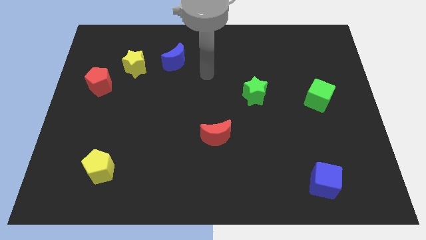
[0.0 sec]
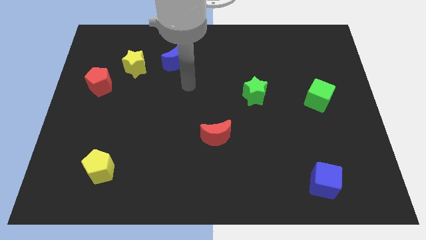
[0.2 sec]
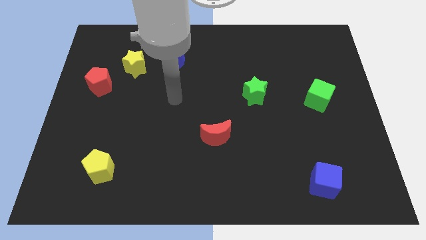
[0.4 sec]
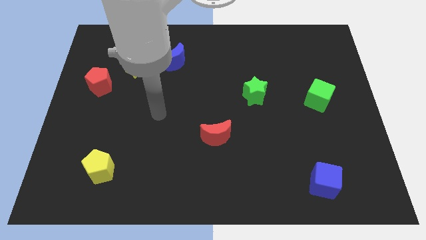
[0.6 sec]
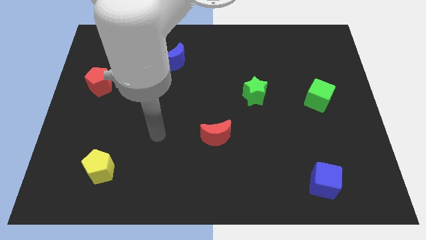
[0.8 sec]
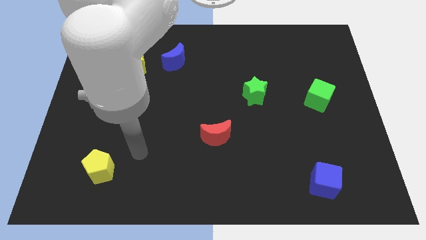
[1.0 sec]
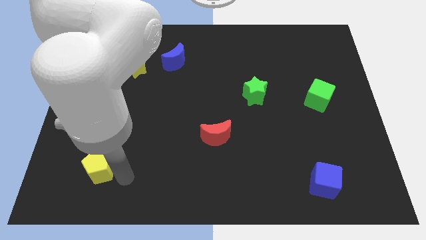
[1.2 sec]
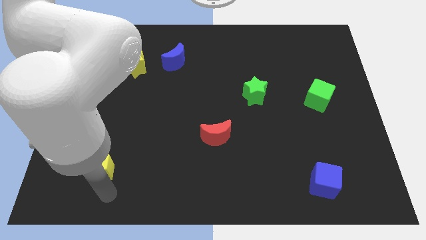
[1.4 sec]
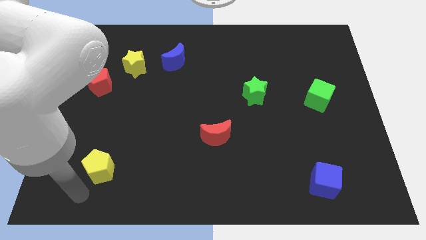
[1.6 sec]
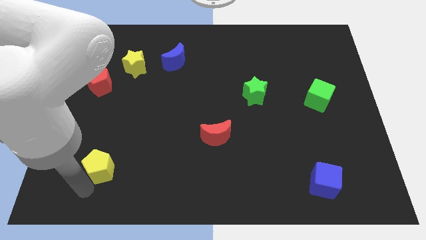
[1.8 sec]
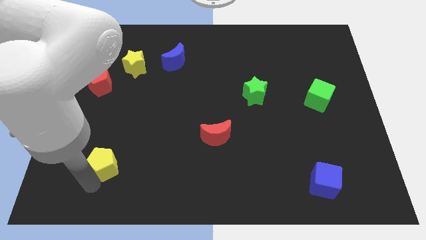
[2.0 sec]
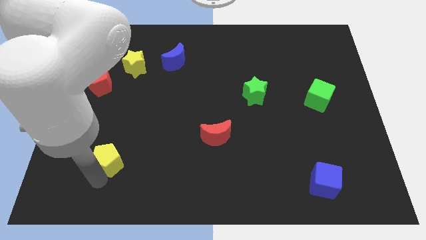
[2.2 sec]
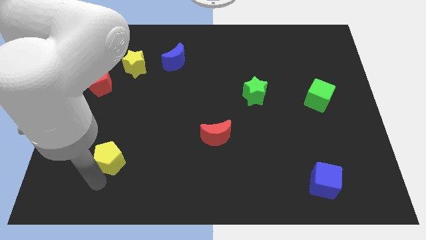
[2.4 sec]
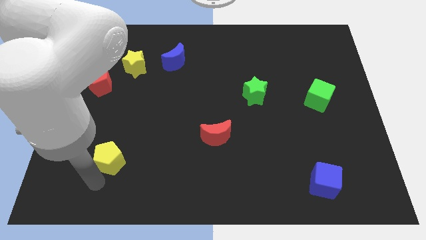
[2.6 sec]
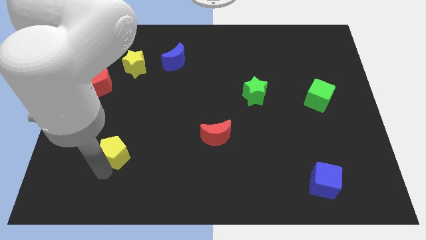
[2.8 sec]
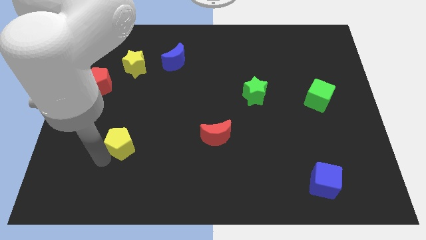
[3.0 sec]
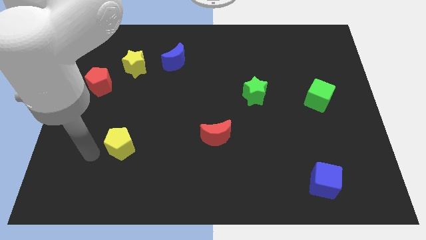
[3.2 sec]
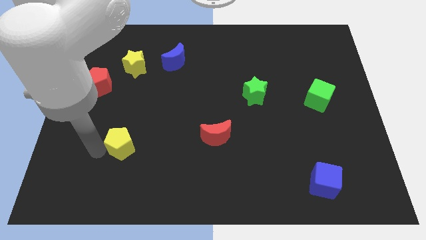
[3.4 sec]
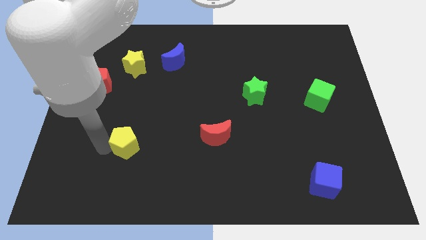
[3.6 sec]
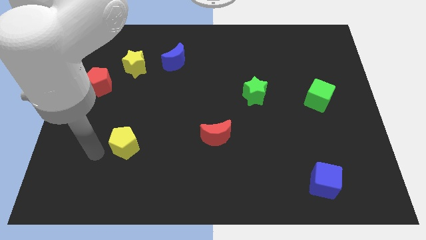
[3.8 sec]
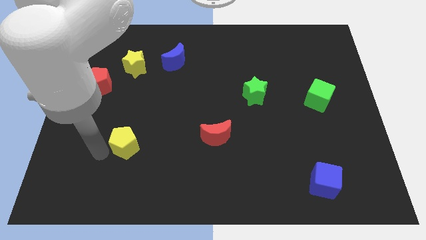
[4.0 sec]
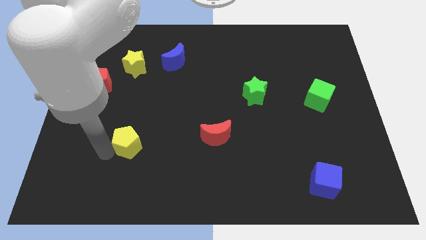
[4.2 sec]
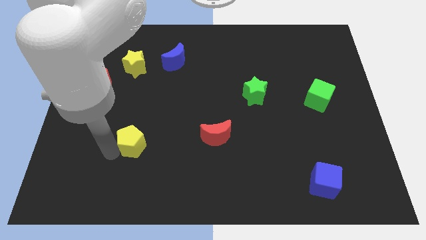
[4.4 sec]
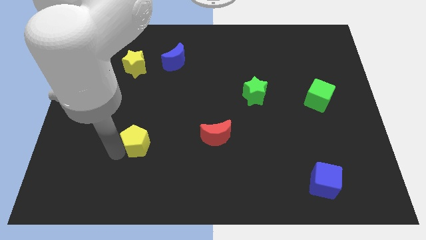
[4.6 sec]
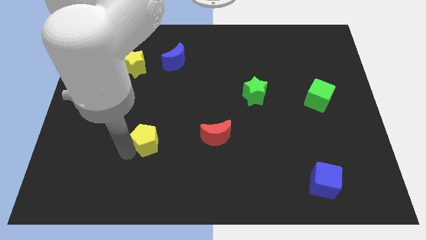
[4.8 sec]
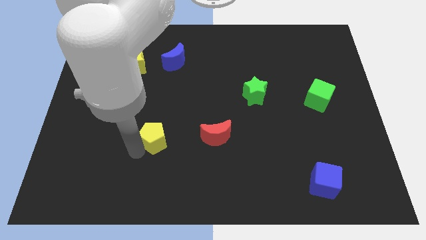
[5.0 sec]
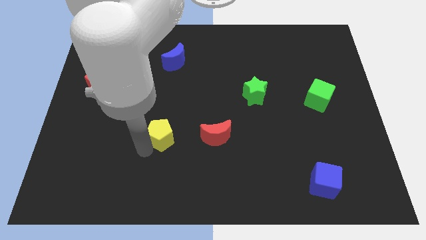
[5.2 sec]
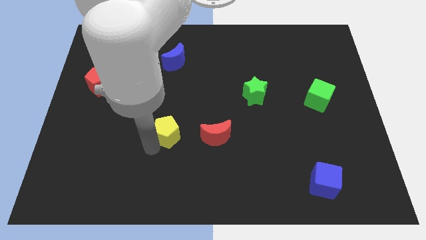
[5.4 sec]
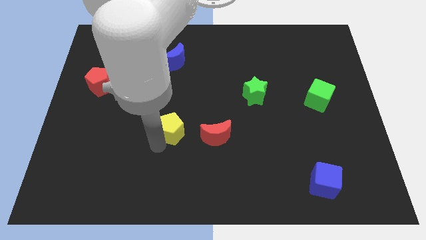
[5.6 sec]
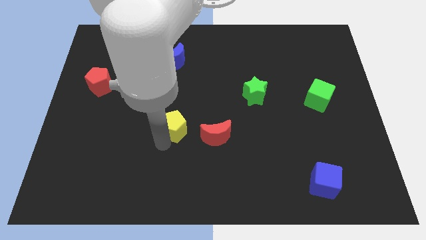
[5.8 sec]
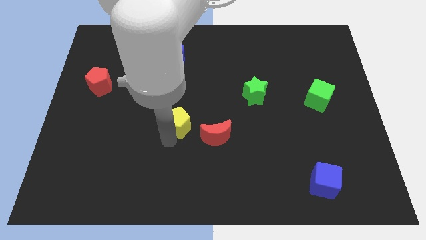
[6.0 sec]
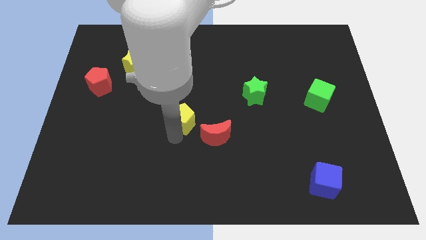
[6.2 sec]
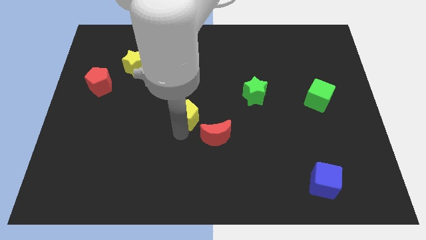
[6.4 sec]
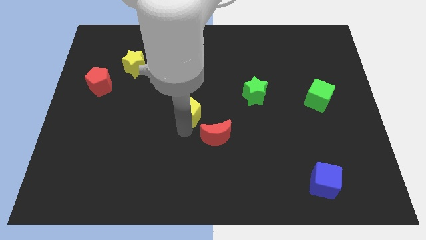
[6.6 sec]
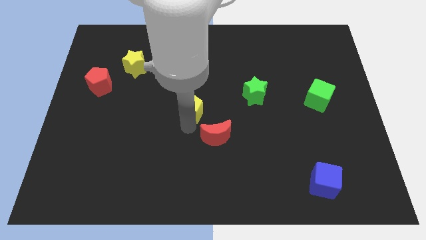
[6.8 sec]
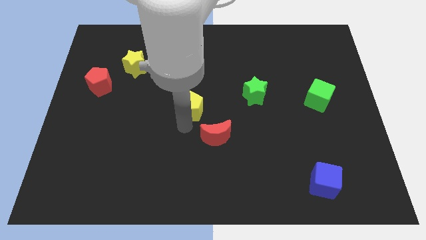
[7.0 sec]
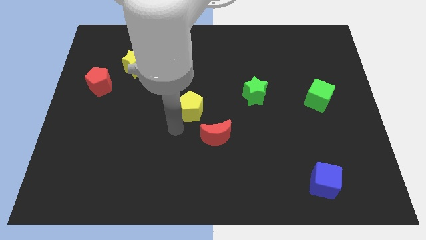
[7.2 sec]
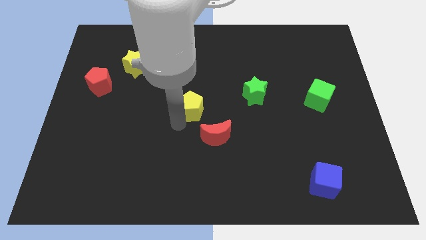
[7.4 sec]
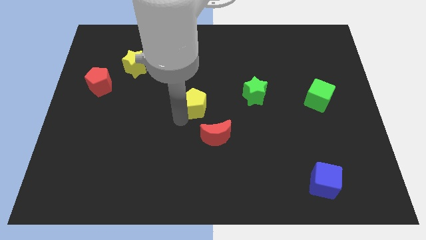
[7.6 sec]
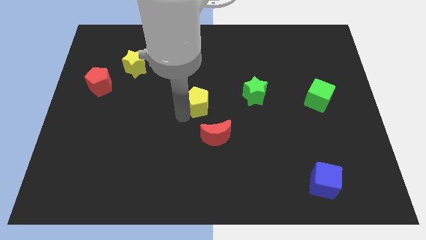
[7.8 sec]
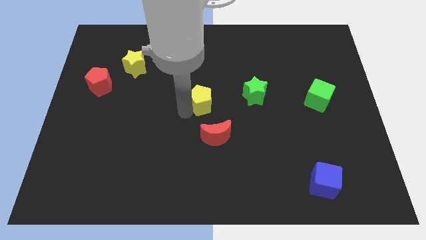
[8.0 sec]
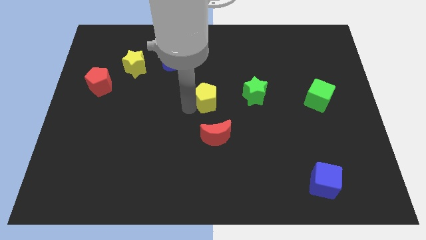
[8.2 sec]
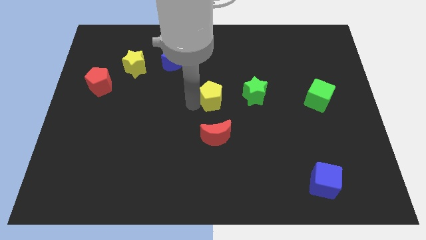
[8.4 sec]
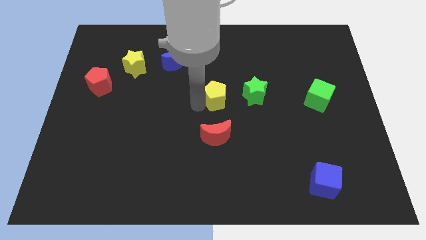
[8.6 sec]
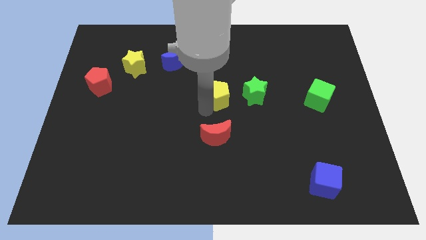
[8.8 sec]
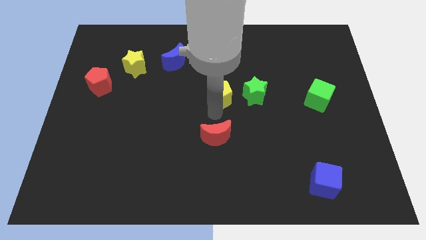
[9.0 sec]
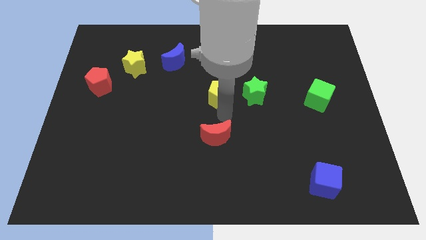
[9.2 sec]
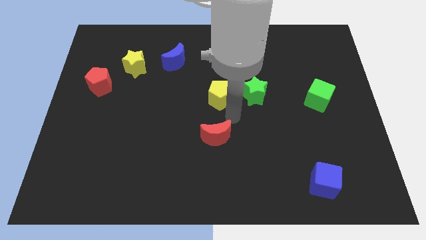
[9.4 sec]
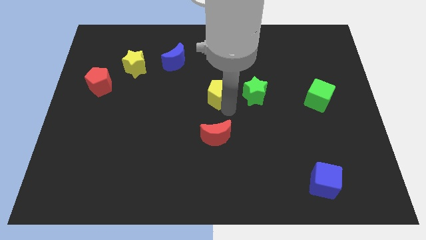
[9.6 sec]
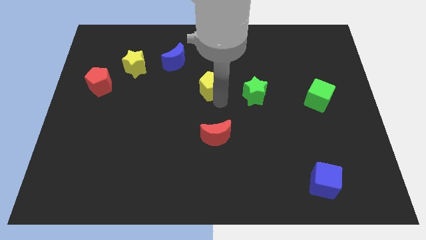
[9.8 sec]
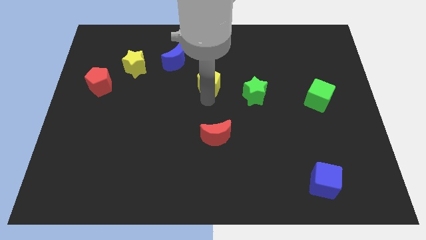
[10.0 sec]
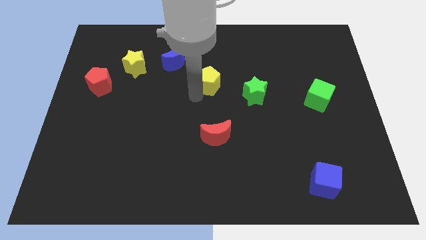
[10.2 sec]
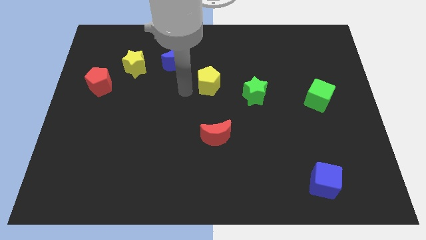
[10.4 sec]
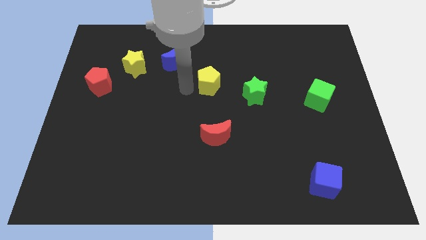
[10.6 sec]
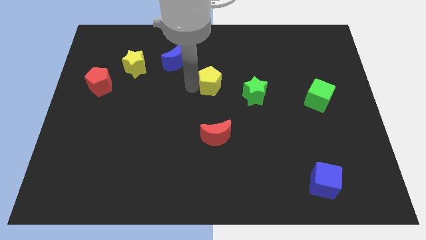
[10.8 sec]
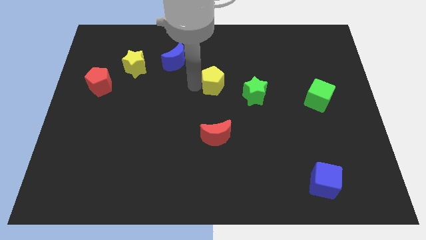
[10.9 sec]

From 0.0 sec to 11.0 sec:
push the yellow pentagon to the top left of the green star

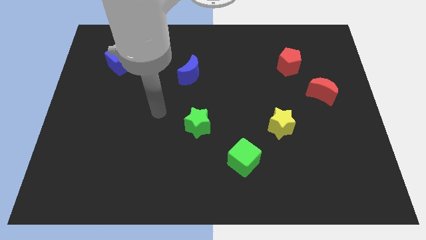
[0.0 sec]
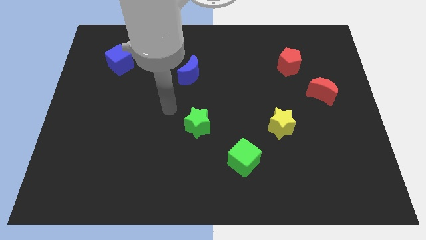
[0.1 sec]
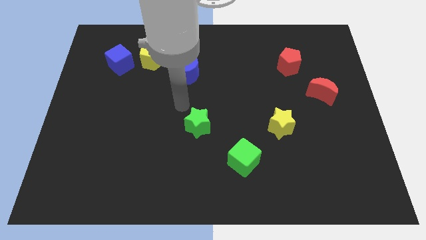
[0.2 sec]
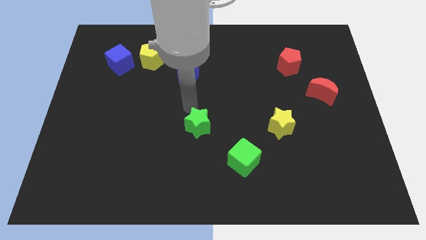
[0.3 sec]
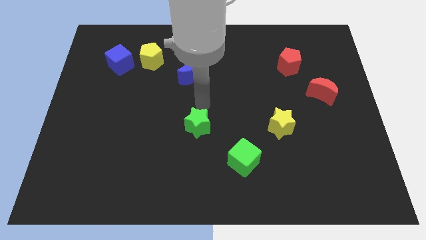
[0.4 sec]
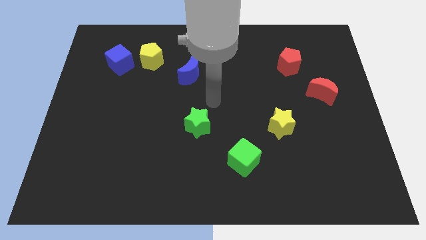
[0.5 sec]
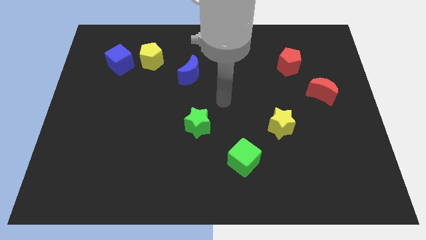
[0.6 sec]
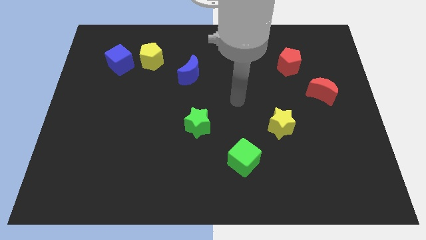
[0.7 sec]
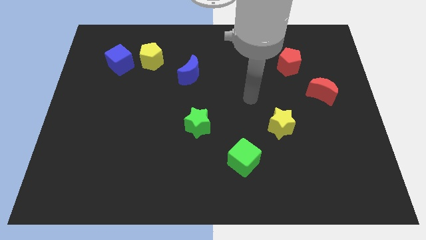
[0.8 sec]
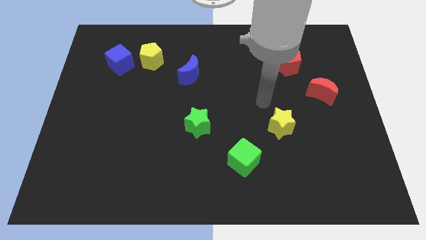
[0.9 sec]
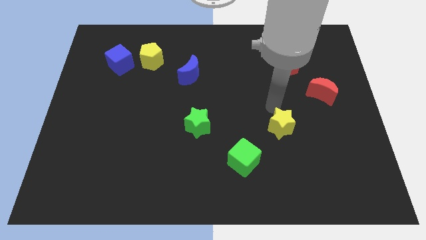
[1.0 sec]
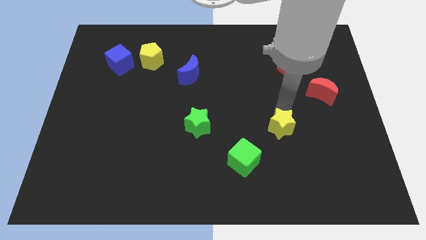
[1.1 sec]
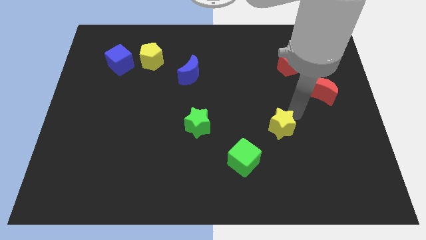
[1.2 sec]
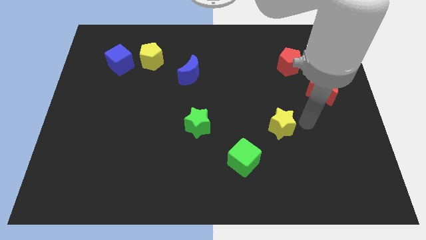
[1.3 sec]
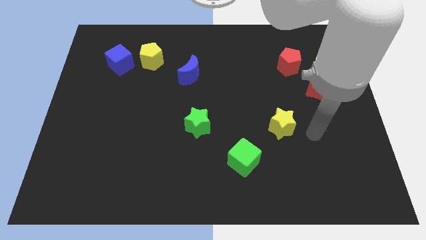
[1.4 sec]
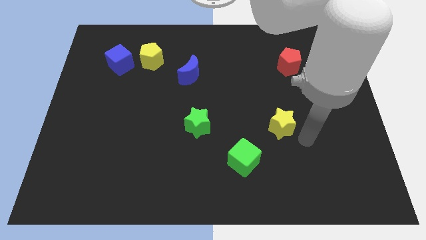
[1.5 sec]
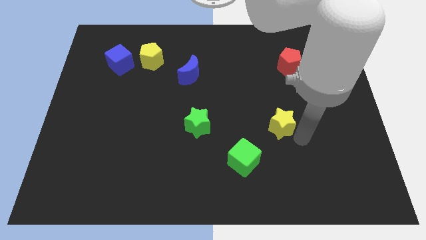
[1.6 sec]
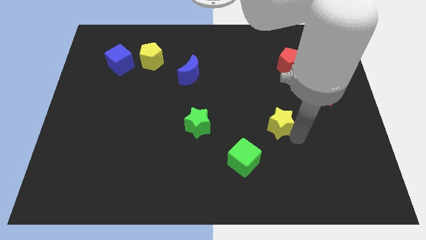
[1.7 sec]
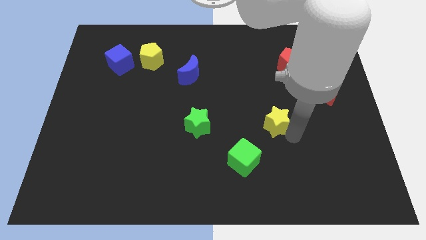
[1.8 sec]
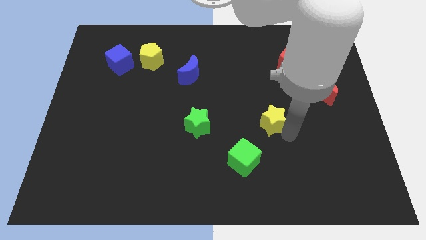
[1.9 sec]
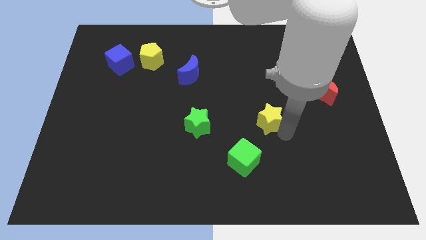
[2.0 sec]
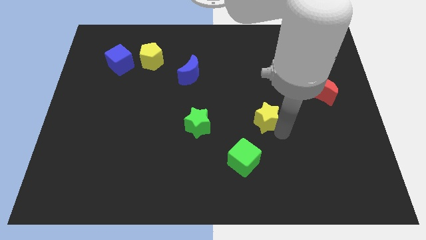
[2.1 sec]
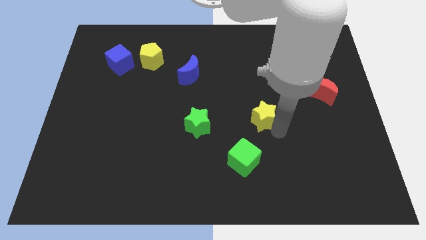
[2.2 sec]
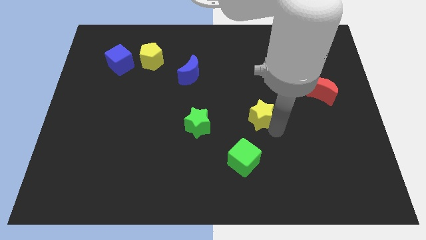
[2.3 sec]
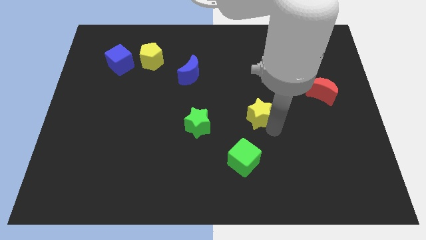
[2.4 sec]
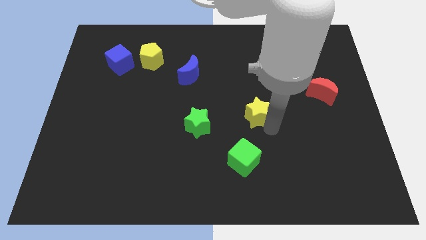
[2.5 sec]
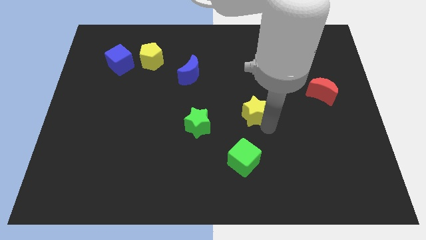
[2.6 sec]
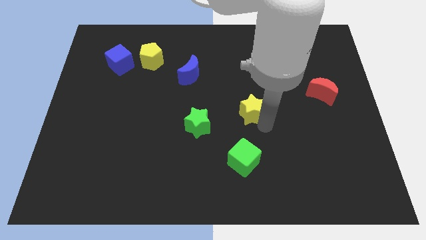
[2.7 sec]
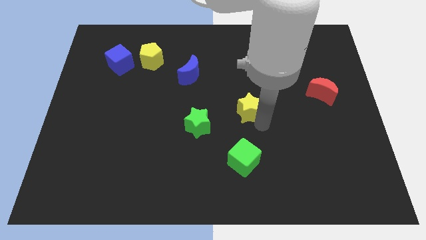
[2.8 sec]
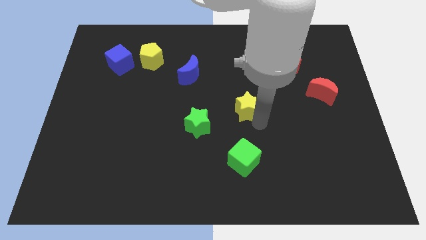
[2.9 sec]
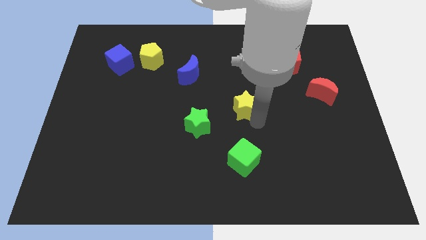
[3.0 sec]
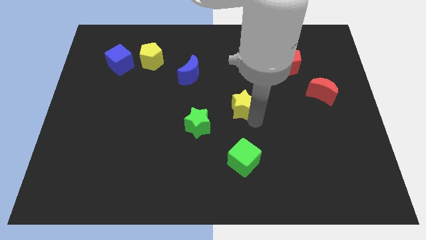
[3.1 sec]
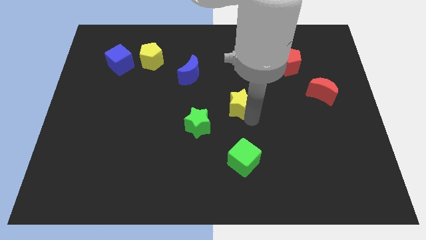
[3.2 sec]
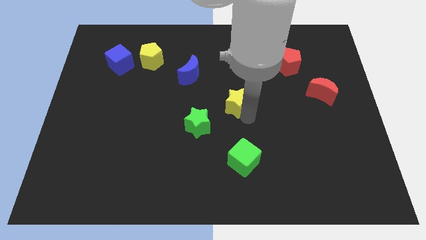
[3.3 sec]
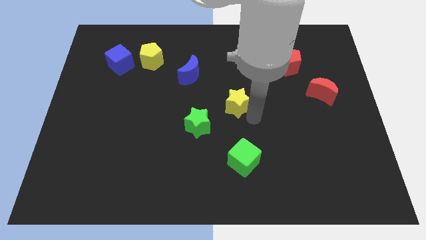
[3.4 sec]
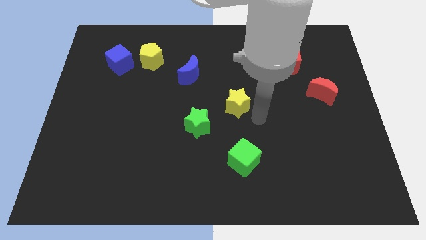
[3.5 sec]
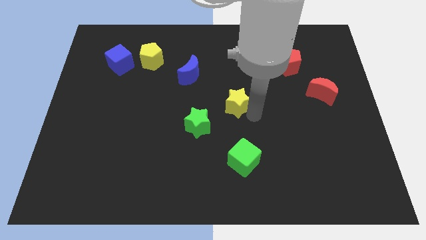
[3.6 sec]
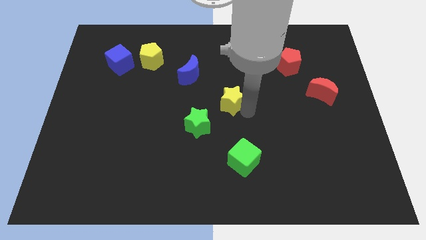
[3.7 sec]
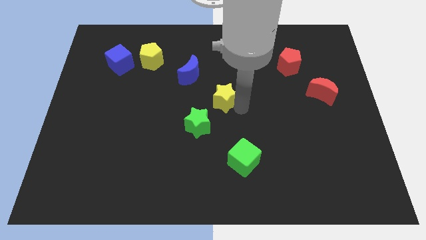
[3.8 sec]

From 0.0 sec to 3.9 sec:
move the yellow star to the bottom right side of the blue moon
